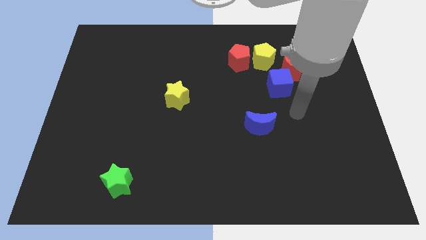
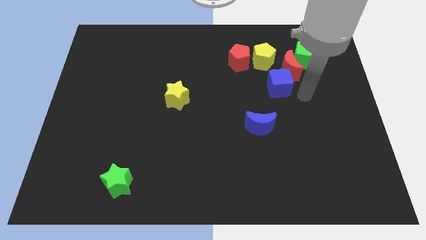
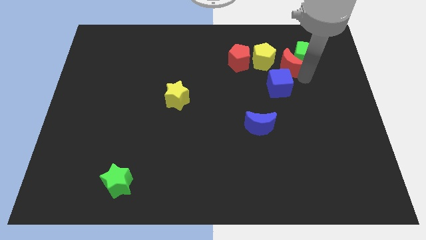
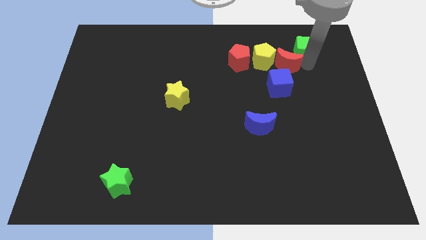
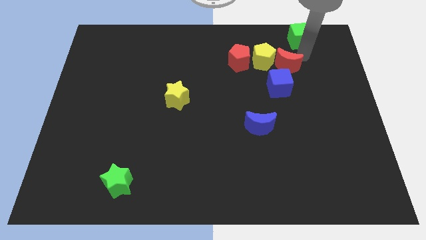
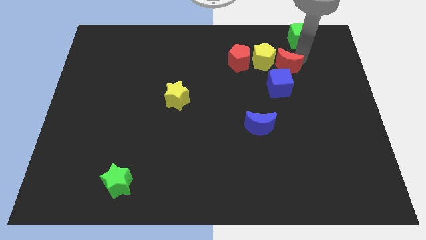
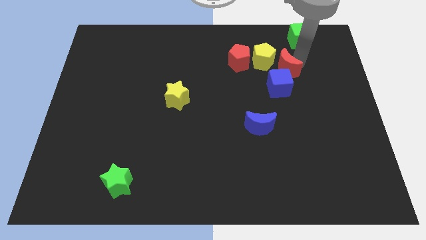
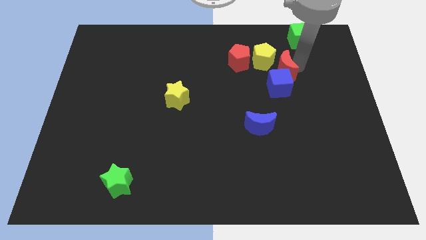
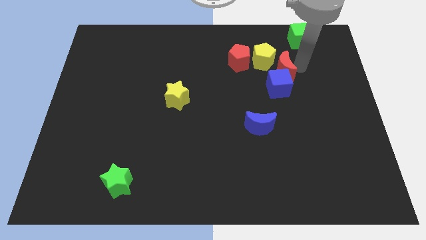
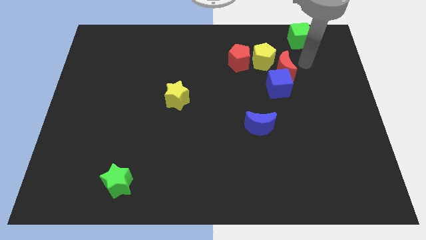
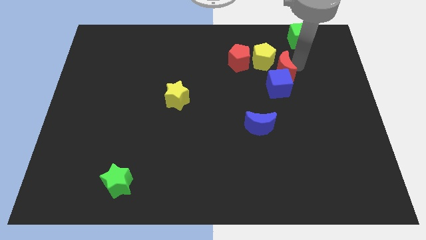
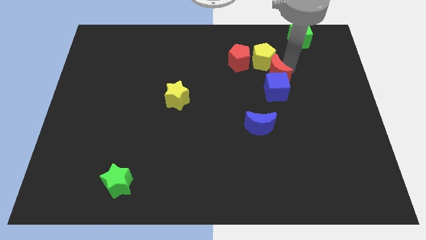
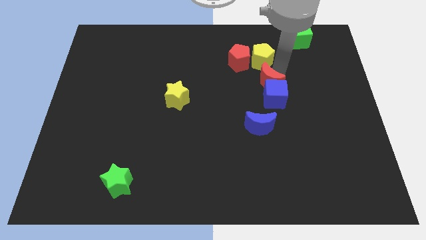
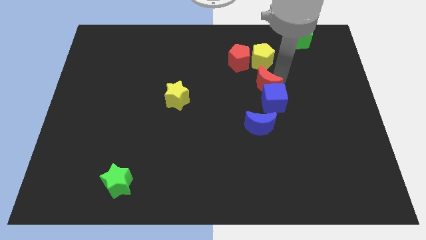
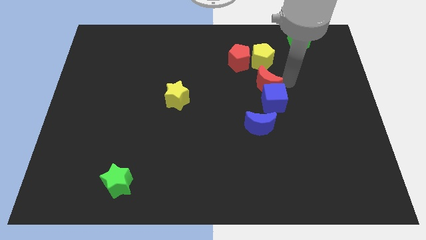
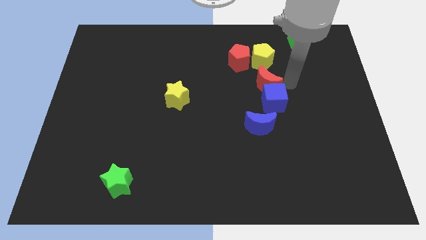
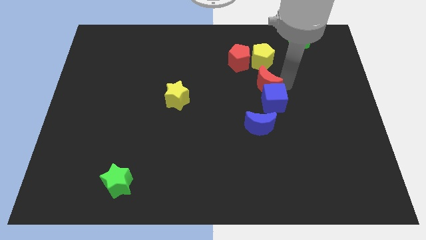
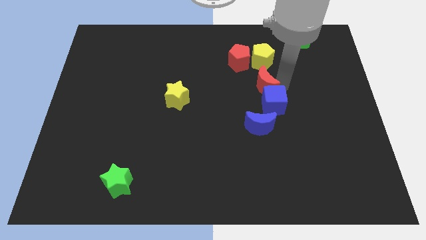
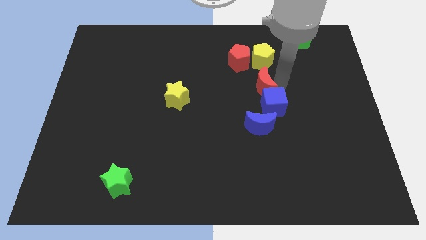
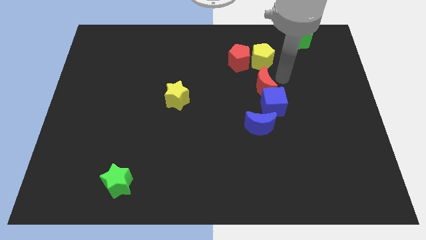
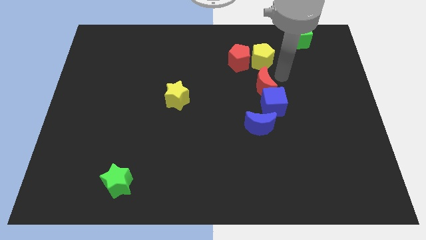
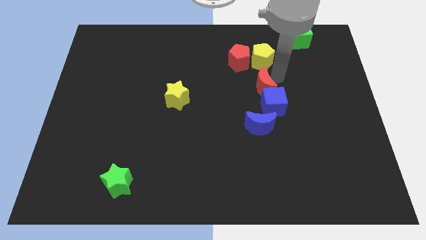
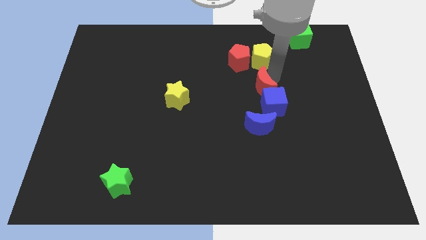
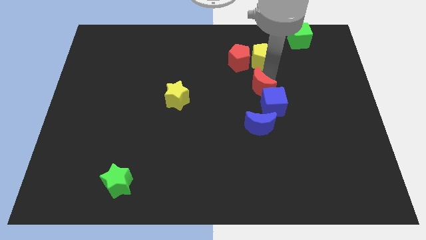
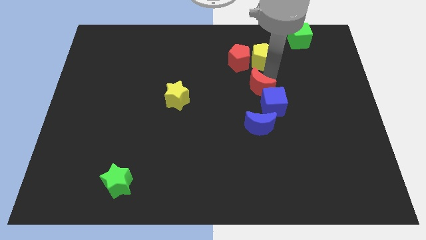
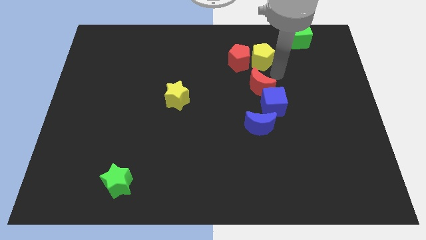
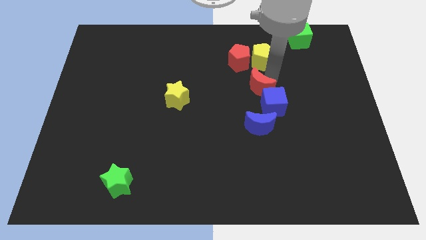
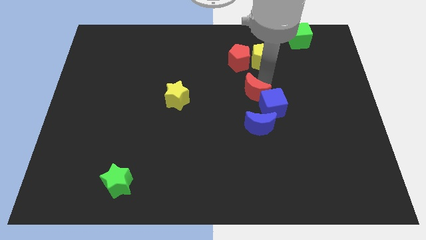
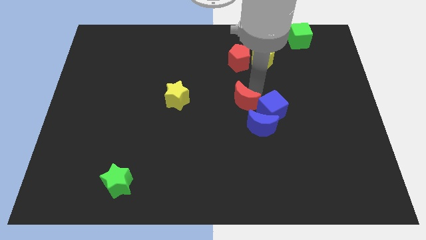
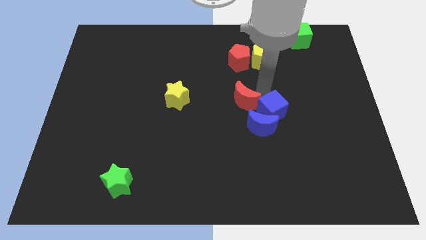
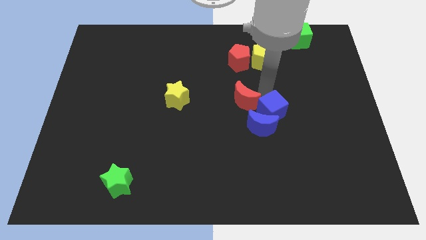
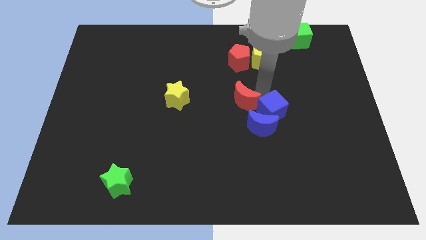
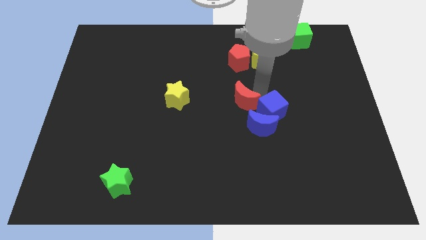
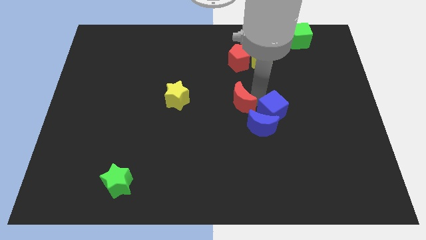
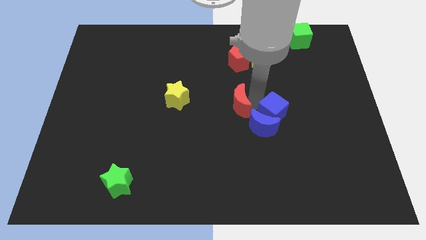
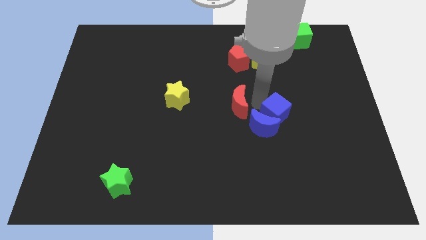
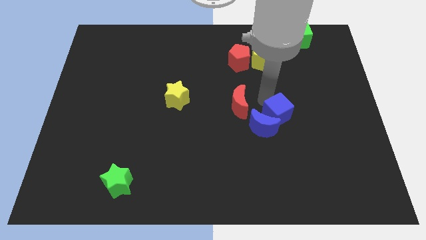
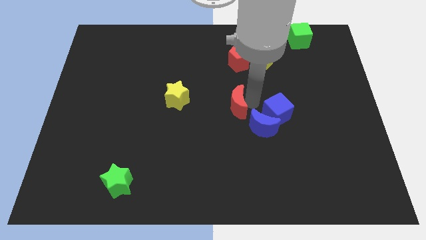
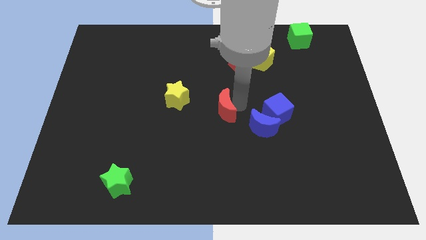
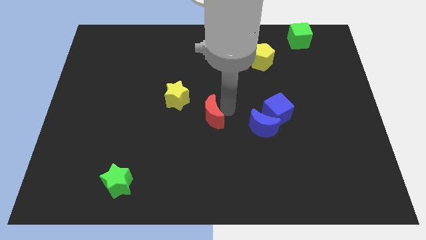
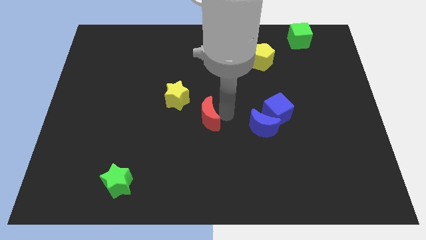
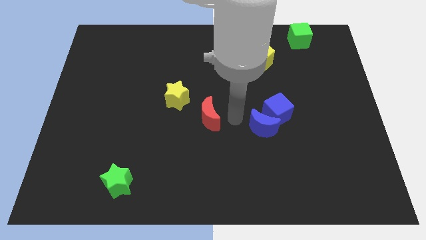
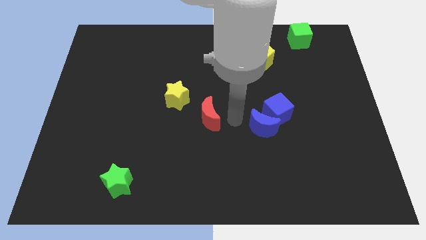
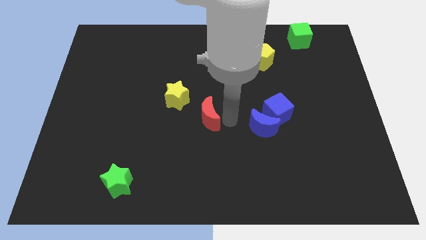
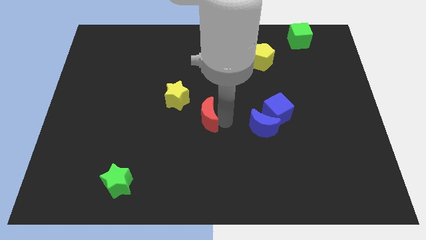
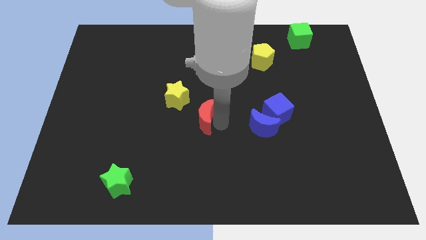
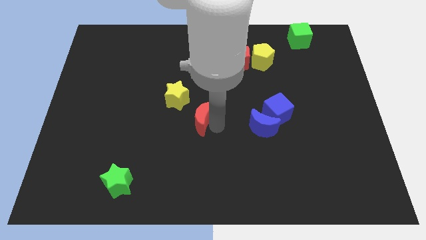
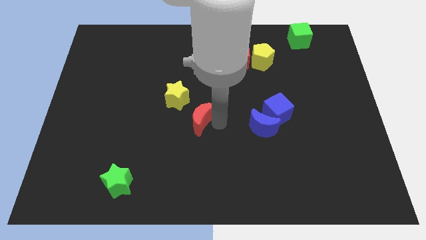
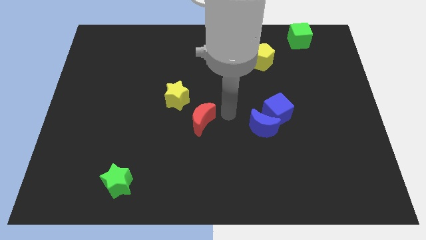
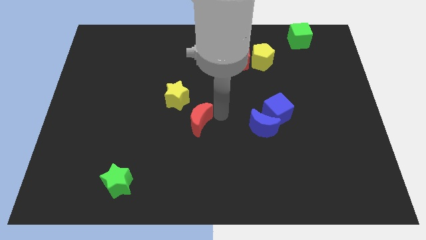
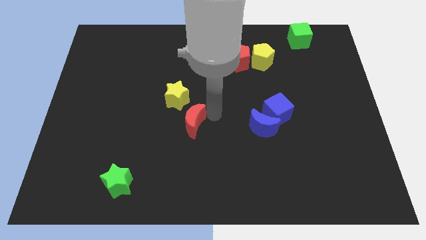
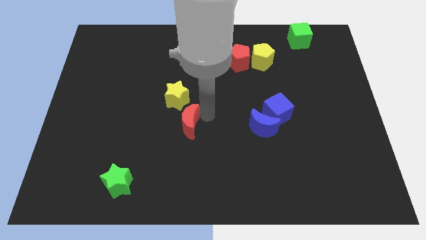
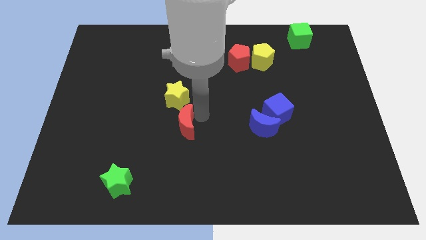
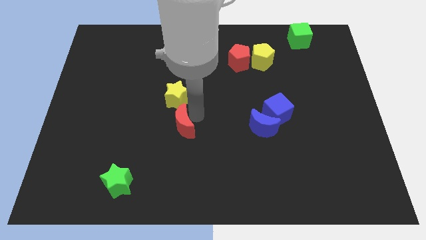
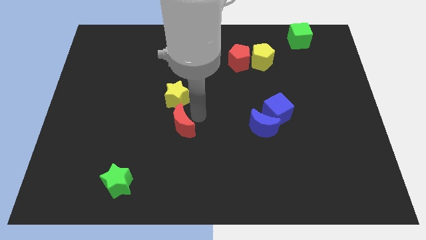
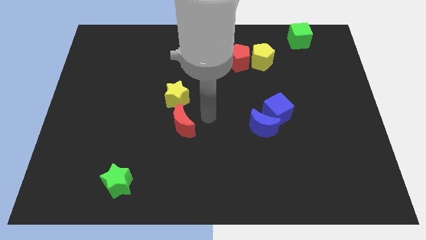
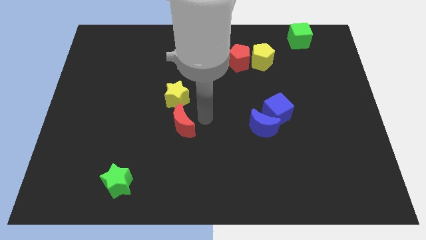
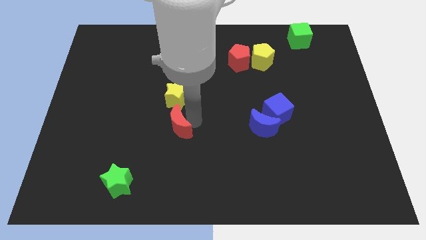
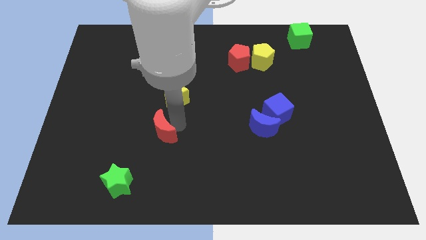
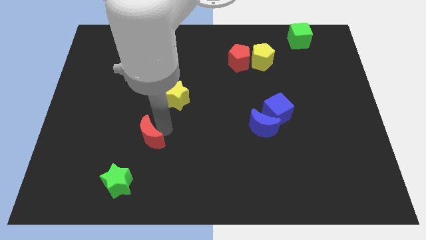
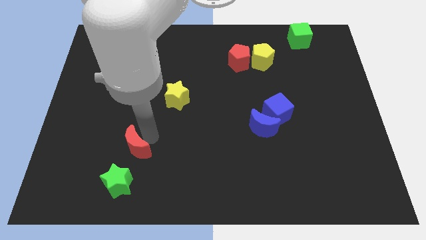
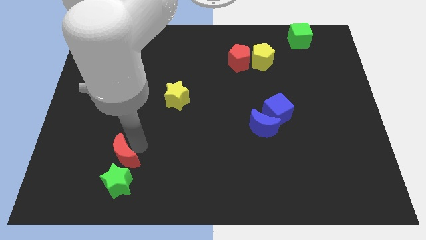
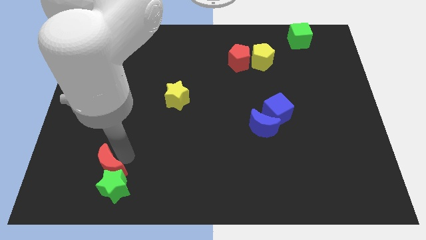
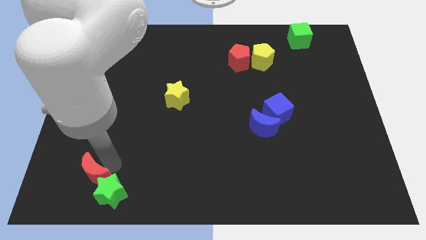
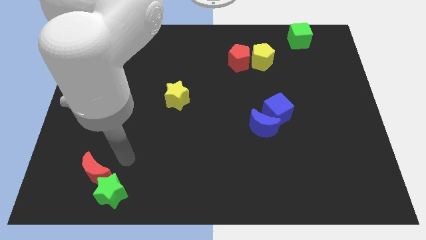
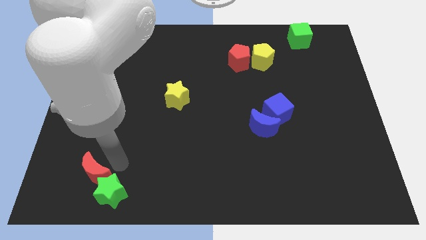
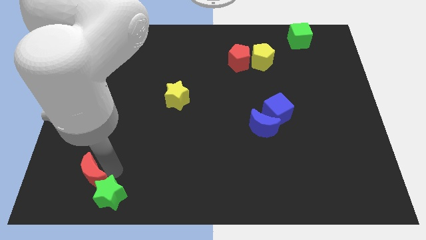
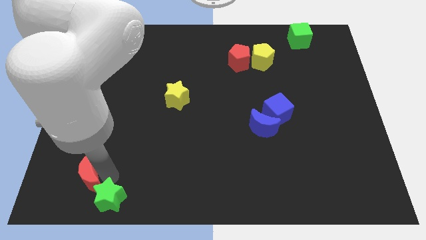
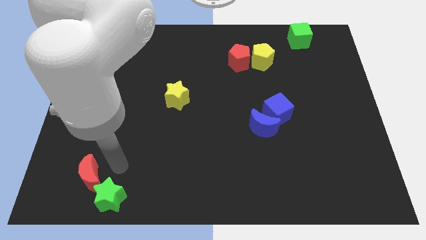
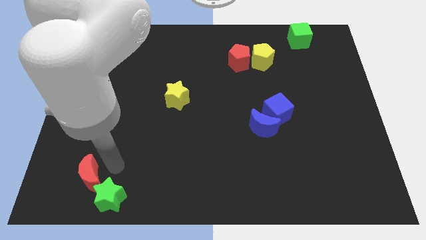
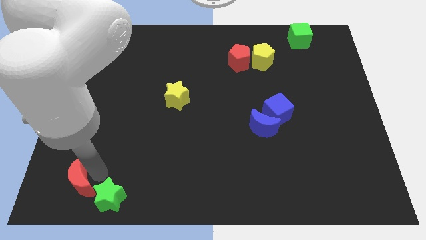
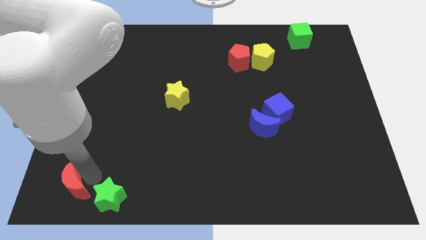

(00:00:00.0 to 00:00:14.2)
push the red moon to the bottom left corner
